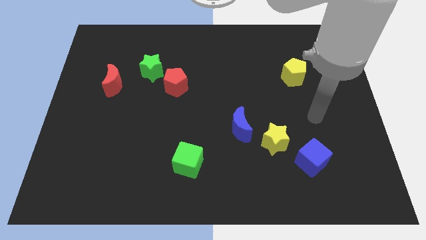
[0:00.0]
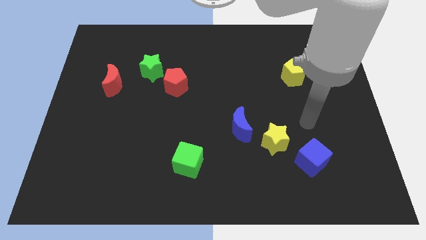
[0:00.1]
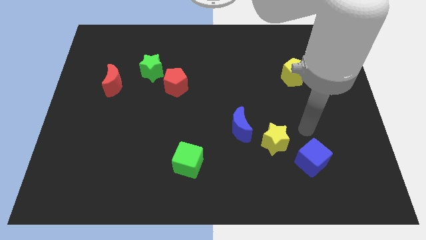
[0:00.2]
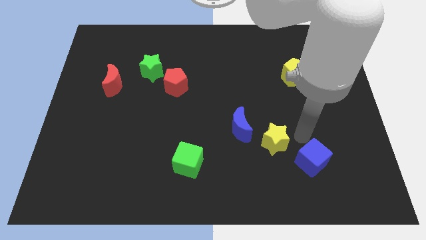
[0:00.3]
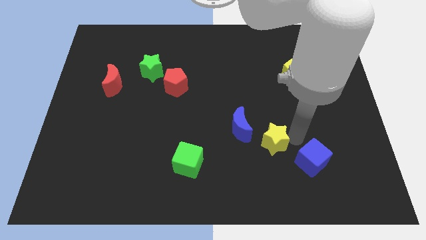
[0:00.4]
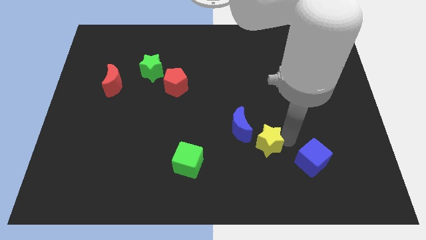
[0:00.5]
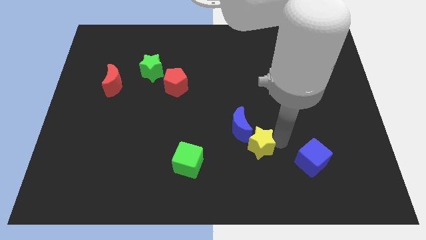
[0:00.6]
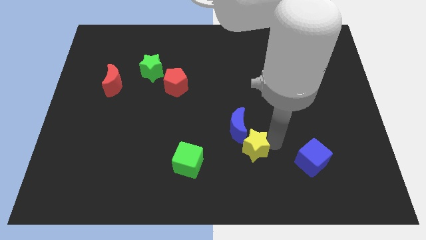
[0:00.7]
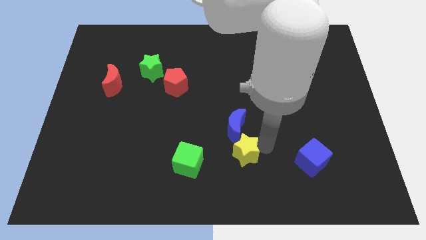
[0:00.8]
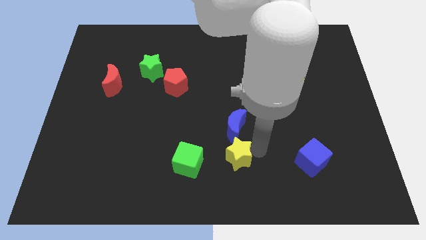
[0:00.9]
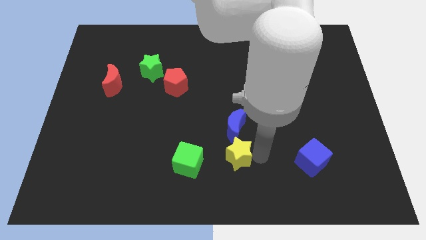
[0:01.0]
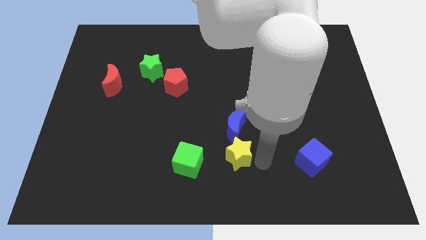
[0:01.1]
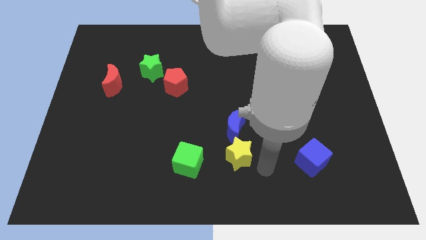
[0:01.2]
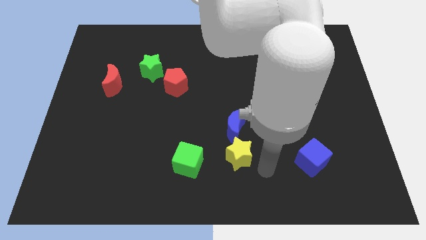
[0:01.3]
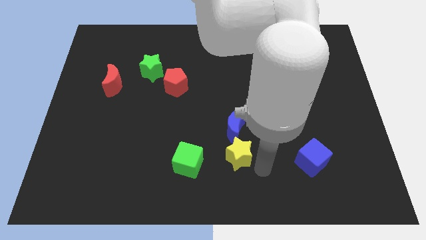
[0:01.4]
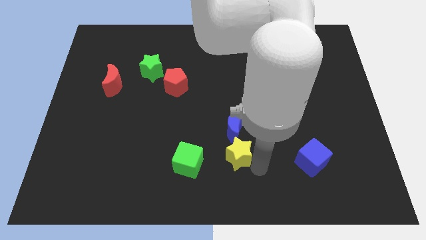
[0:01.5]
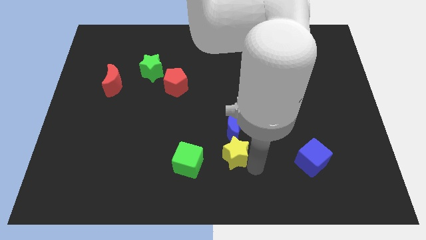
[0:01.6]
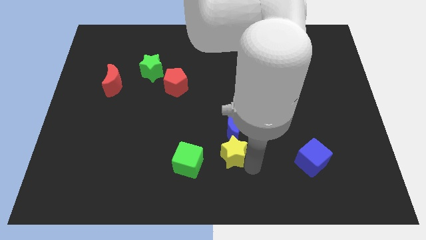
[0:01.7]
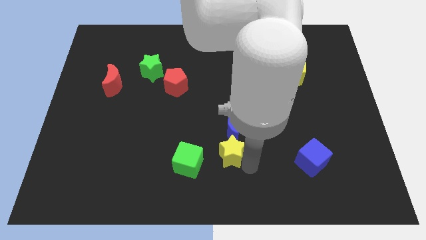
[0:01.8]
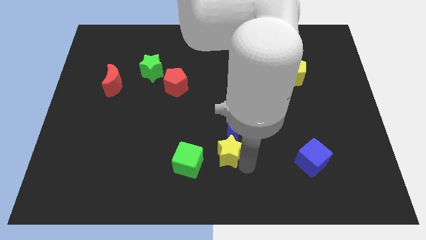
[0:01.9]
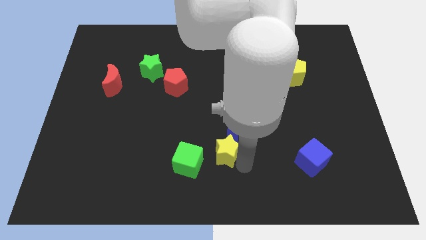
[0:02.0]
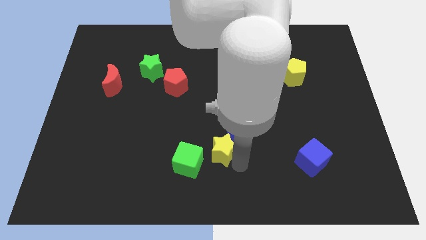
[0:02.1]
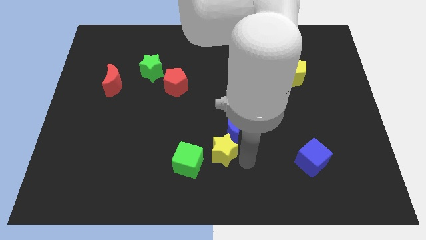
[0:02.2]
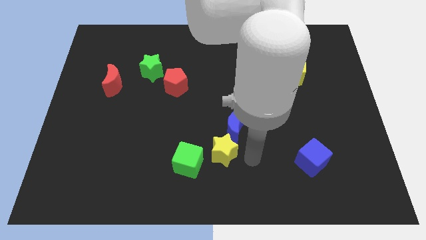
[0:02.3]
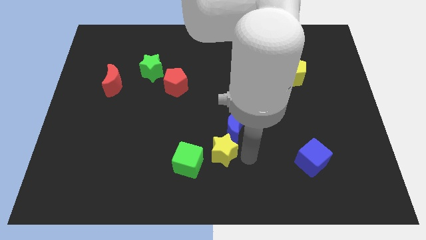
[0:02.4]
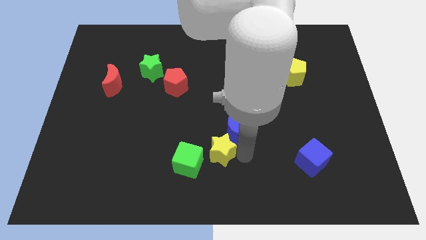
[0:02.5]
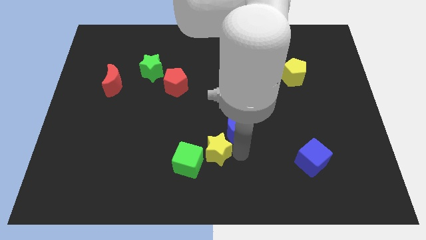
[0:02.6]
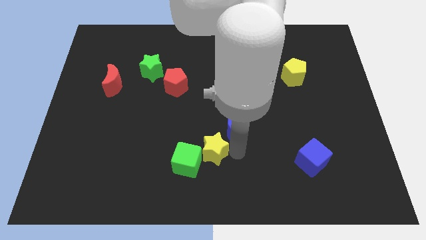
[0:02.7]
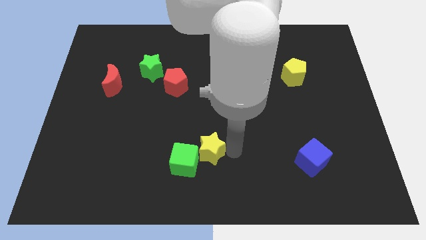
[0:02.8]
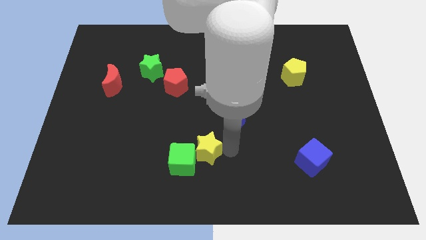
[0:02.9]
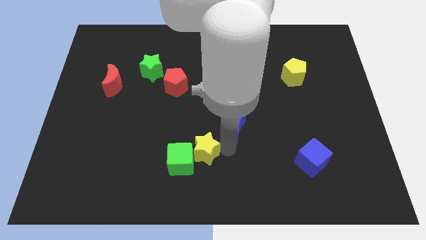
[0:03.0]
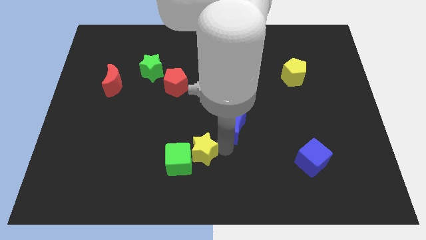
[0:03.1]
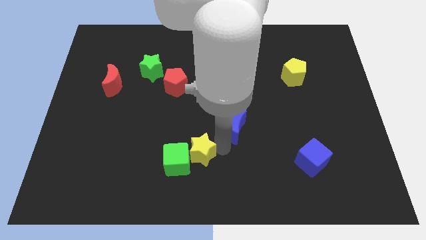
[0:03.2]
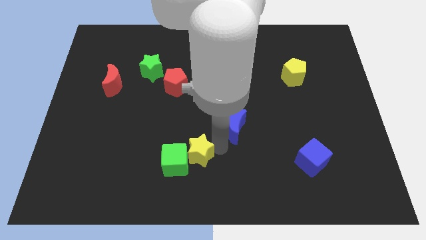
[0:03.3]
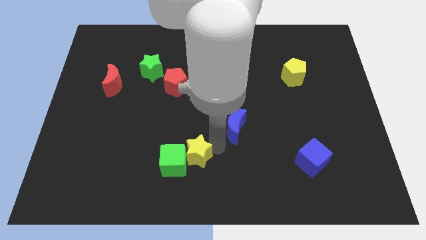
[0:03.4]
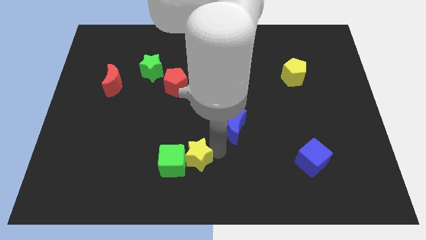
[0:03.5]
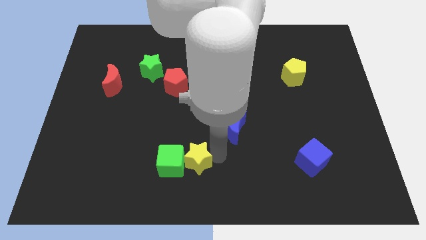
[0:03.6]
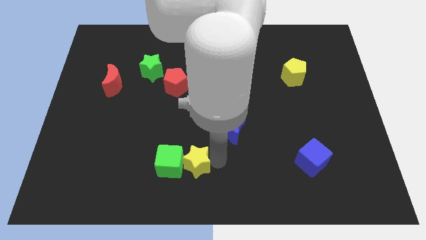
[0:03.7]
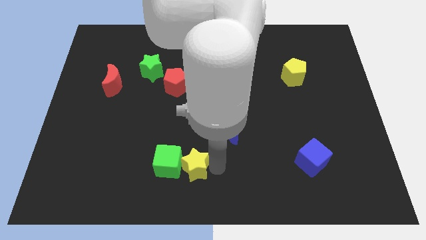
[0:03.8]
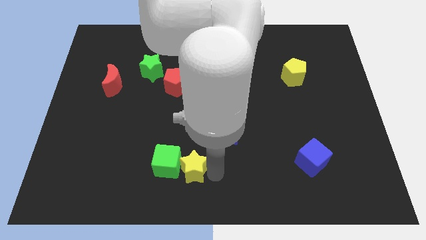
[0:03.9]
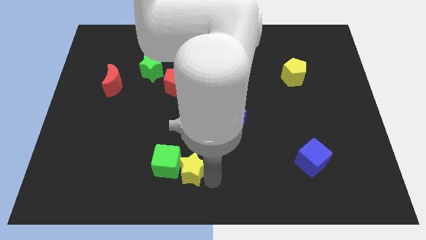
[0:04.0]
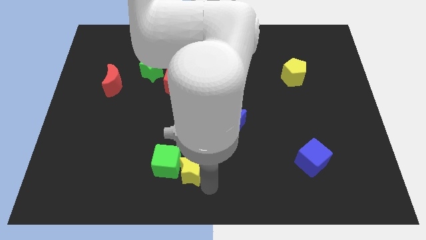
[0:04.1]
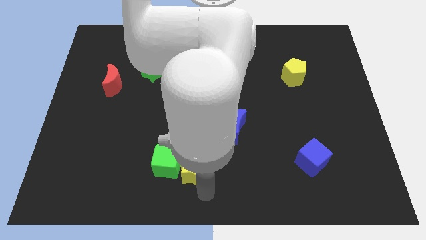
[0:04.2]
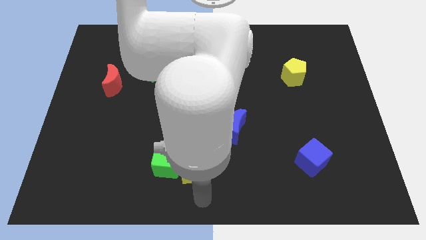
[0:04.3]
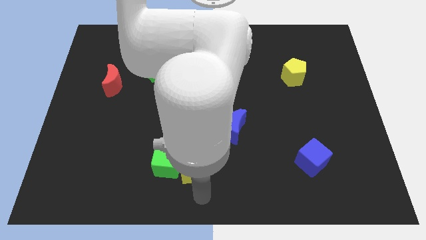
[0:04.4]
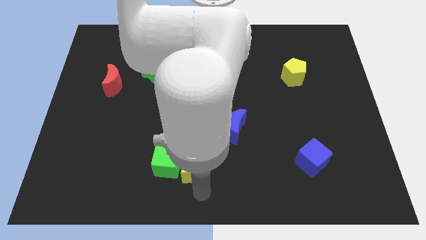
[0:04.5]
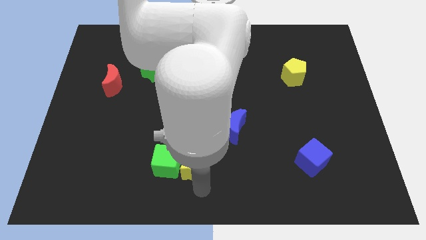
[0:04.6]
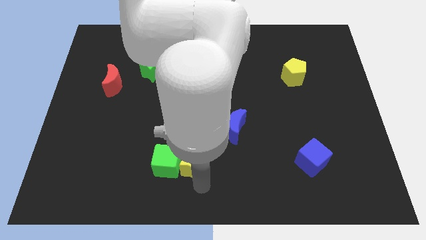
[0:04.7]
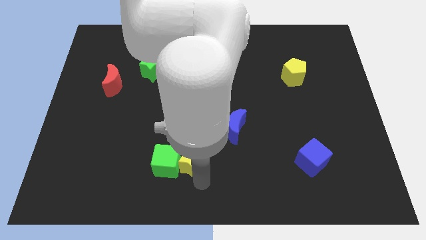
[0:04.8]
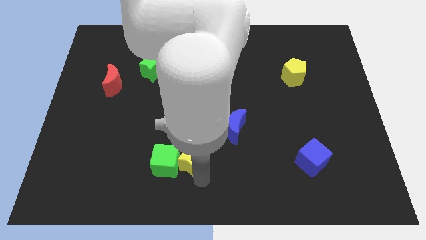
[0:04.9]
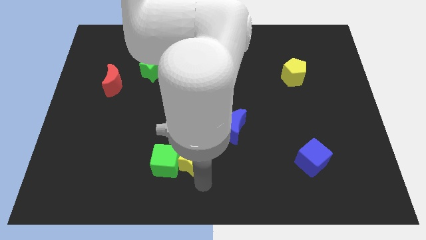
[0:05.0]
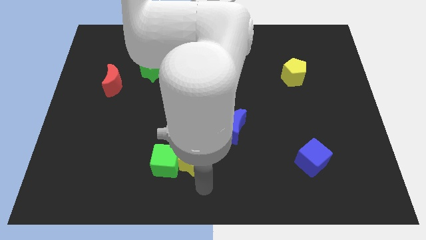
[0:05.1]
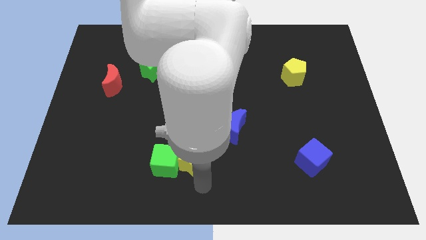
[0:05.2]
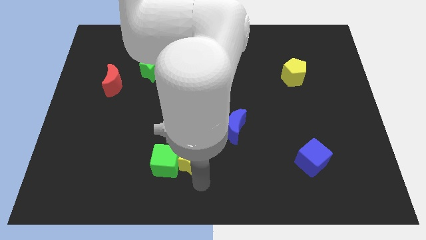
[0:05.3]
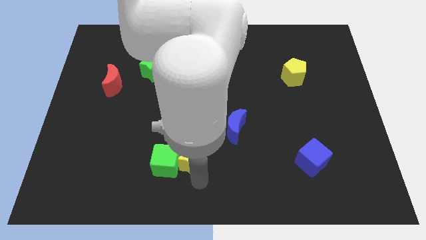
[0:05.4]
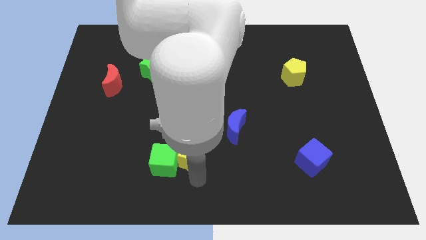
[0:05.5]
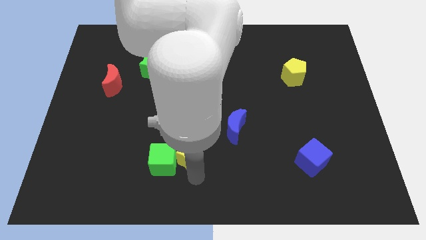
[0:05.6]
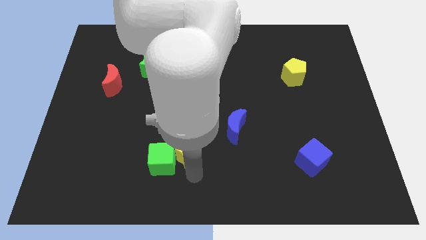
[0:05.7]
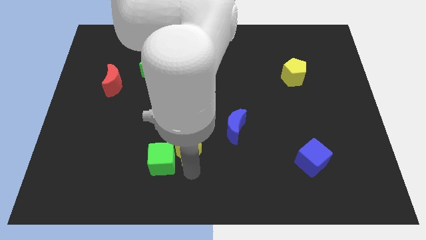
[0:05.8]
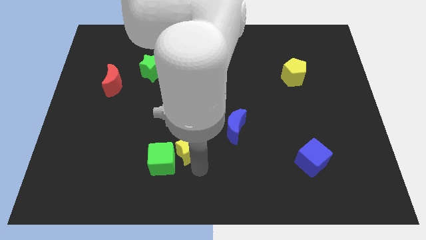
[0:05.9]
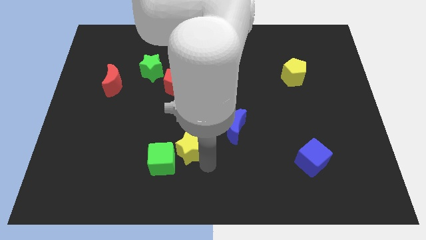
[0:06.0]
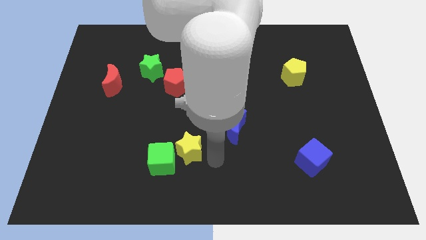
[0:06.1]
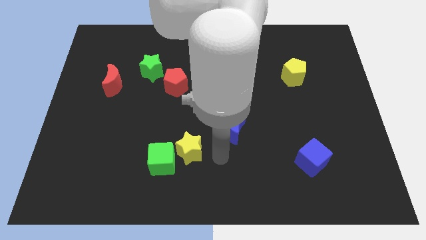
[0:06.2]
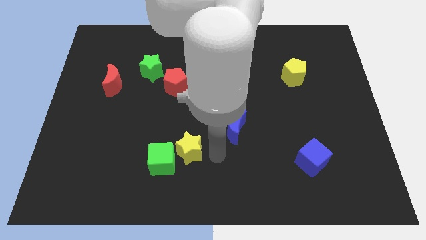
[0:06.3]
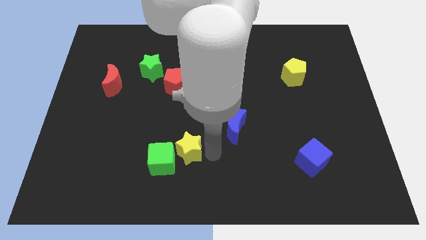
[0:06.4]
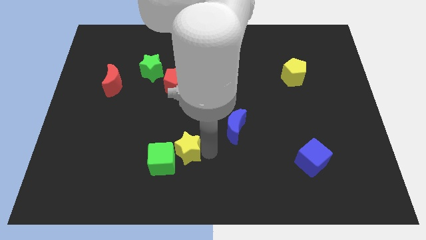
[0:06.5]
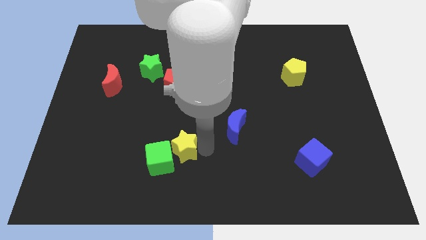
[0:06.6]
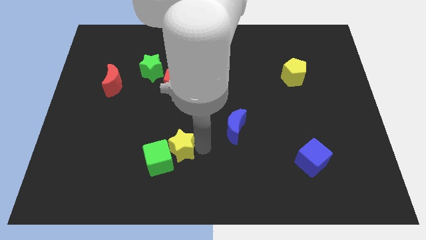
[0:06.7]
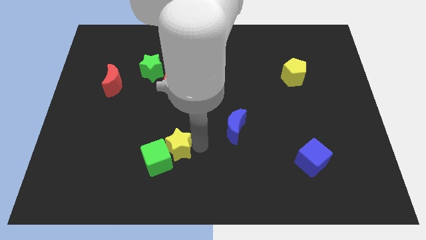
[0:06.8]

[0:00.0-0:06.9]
slide the yellow star to the left

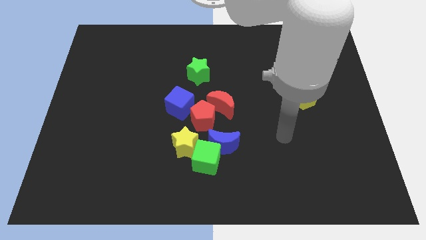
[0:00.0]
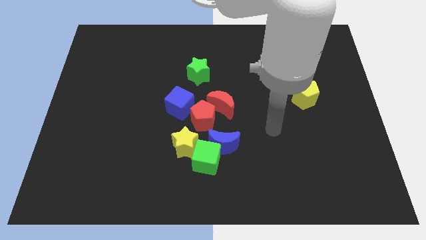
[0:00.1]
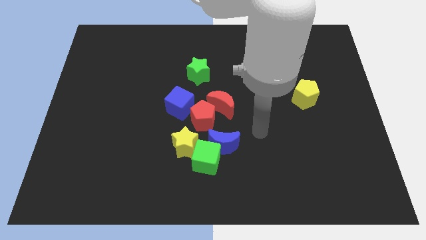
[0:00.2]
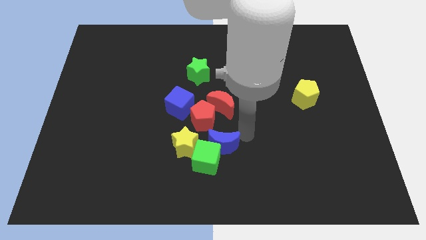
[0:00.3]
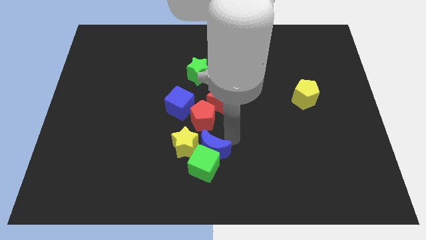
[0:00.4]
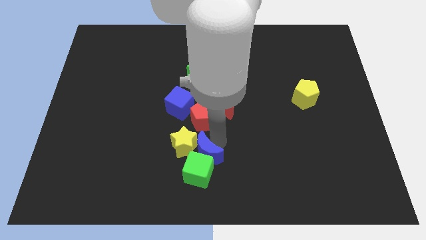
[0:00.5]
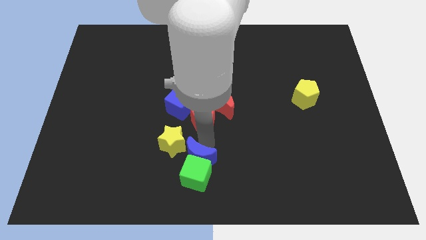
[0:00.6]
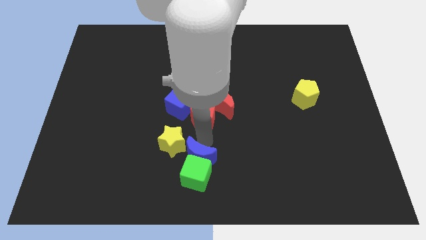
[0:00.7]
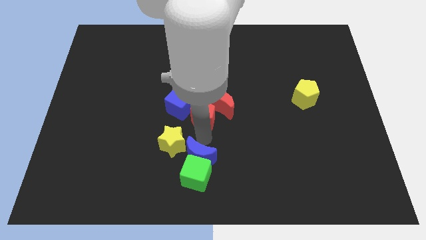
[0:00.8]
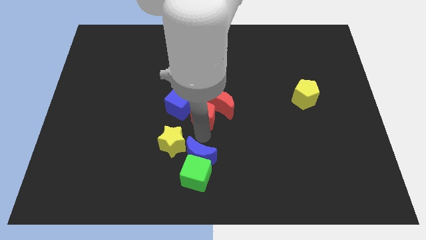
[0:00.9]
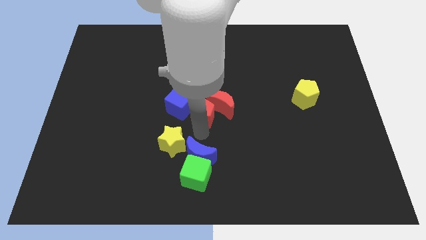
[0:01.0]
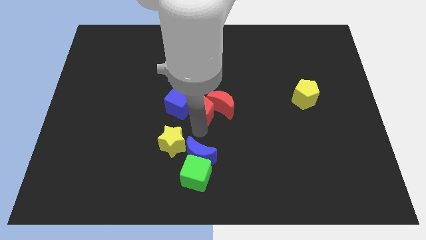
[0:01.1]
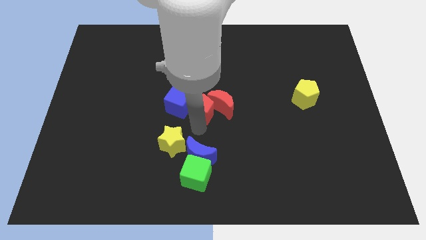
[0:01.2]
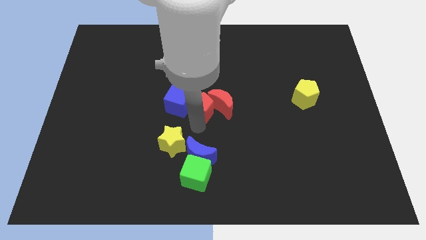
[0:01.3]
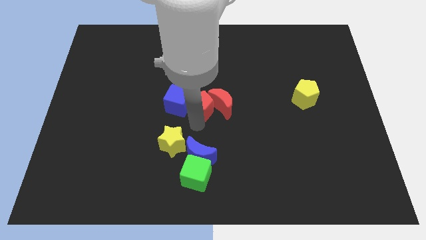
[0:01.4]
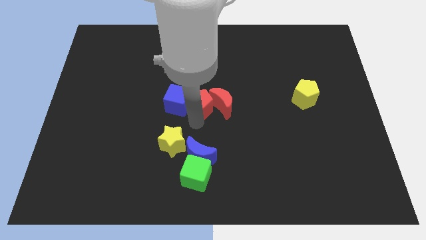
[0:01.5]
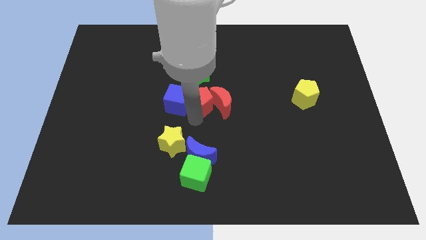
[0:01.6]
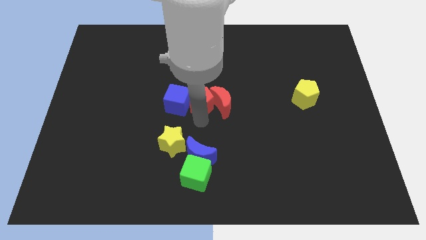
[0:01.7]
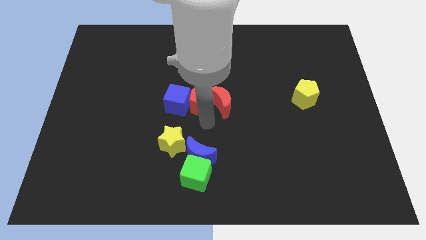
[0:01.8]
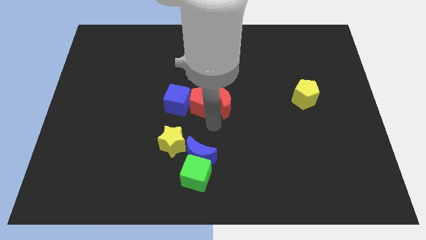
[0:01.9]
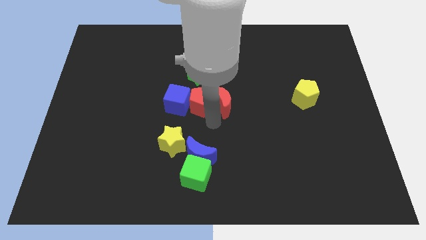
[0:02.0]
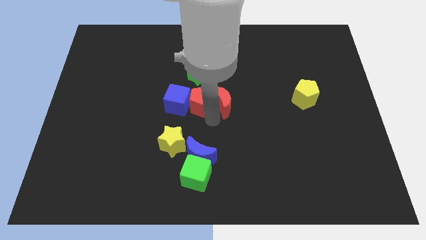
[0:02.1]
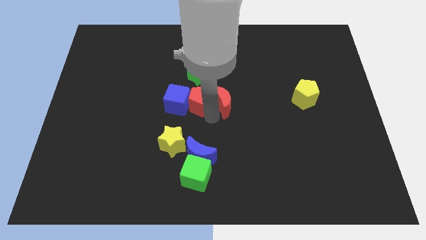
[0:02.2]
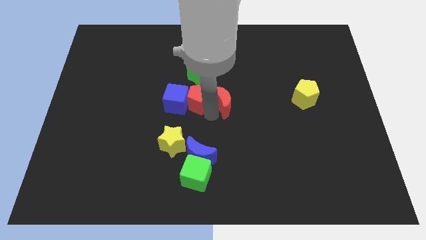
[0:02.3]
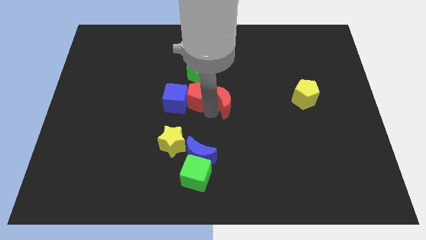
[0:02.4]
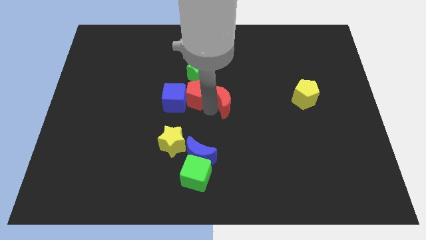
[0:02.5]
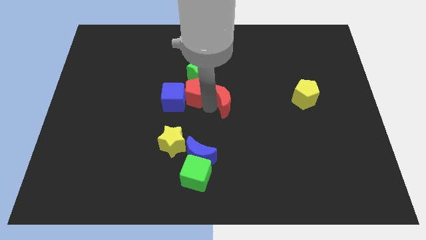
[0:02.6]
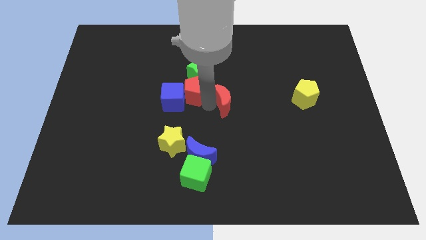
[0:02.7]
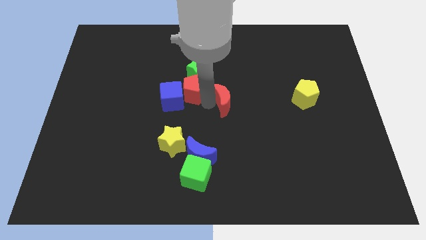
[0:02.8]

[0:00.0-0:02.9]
move the red pentagon a bit diagonally upwards and to the left
